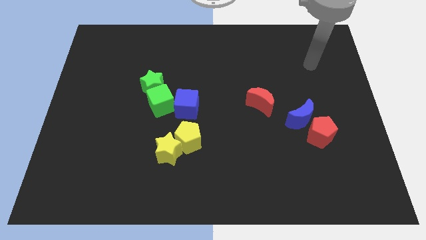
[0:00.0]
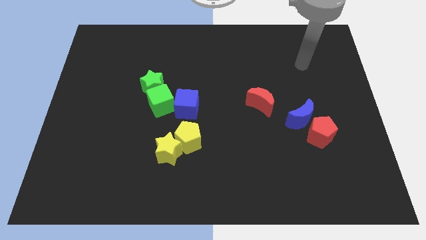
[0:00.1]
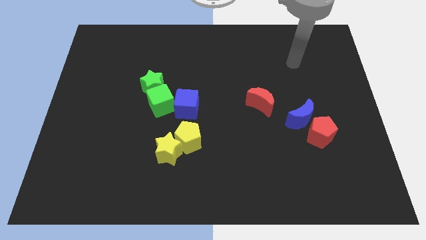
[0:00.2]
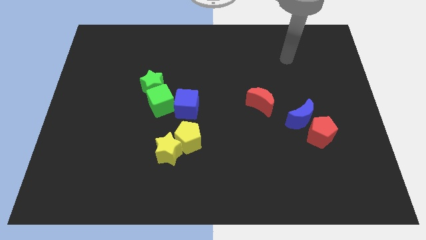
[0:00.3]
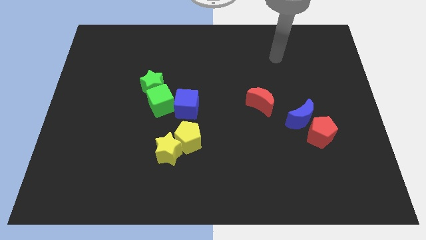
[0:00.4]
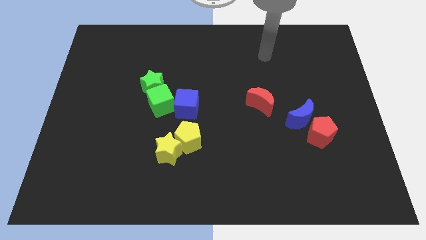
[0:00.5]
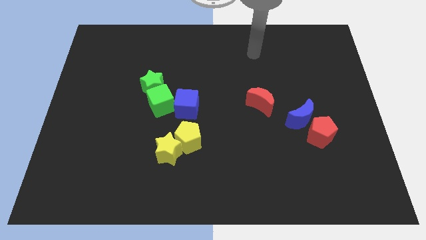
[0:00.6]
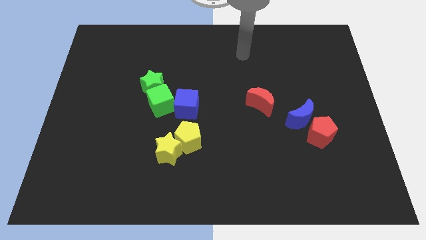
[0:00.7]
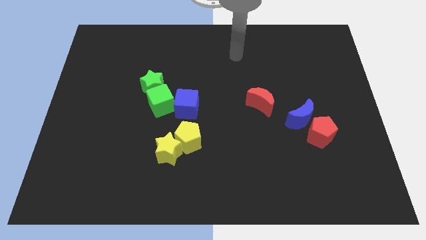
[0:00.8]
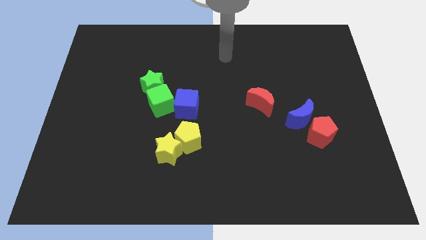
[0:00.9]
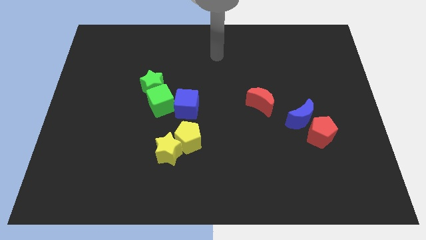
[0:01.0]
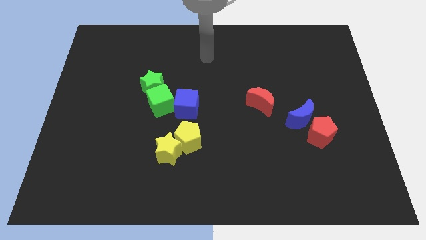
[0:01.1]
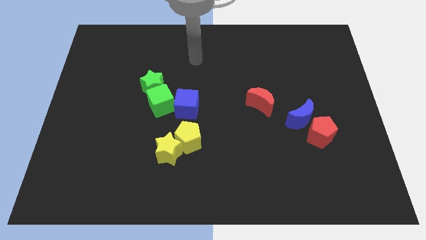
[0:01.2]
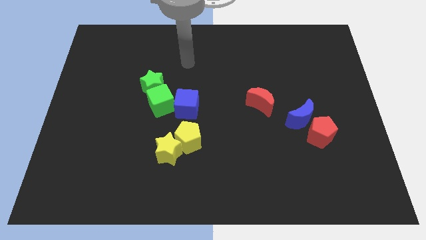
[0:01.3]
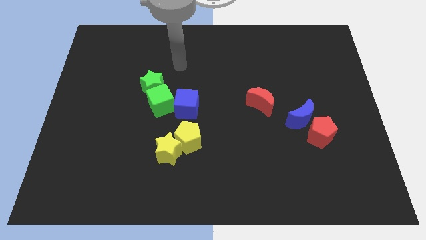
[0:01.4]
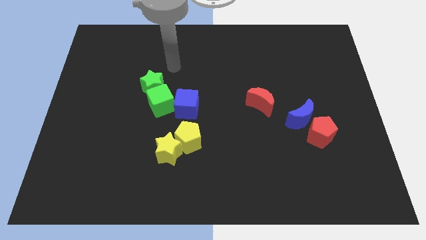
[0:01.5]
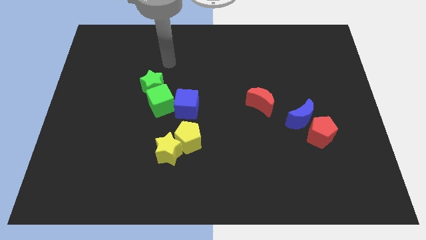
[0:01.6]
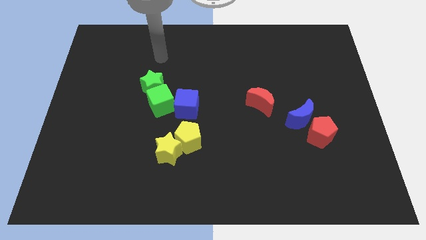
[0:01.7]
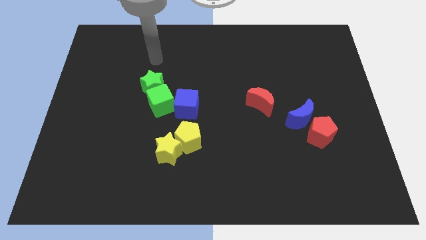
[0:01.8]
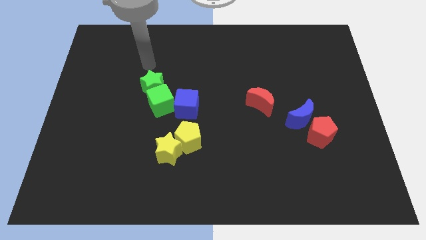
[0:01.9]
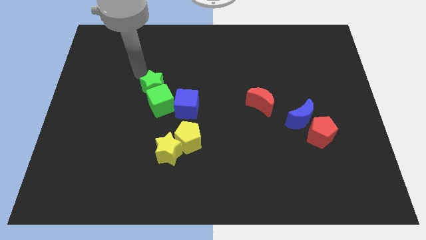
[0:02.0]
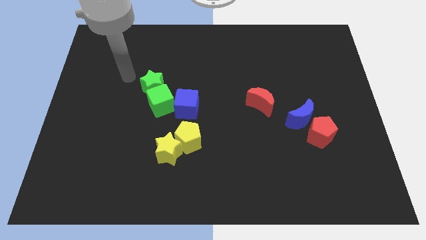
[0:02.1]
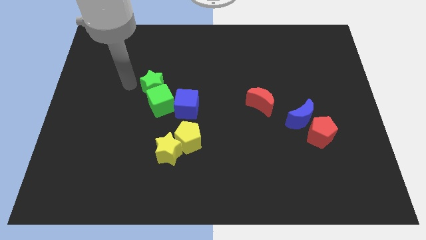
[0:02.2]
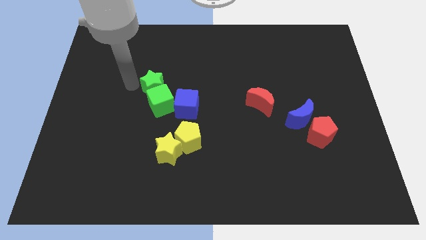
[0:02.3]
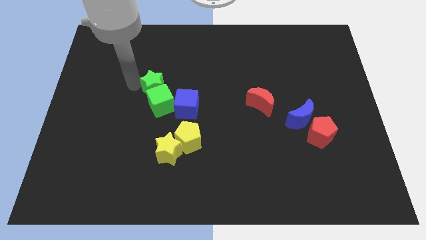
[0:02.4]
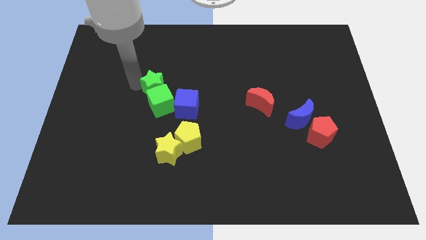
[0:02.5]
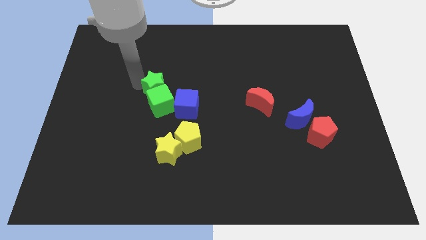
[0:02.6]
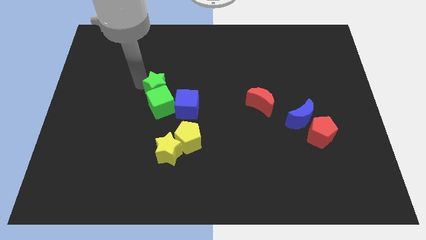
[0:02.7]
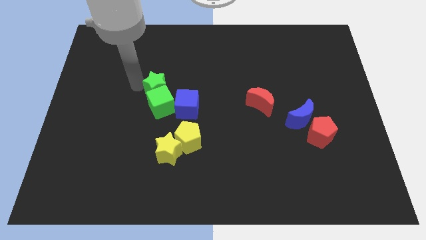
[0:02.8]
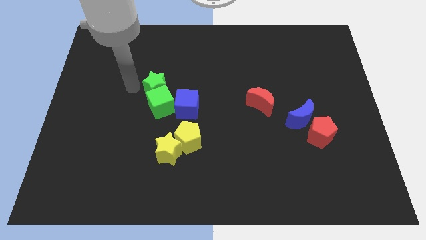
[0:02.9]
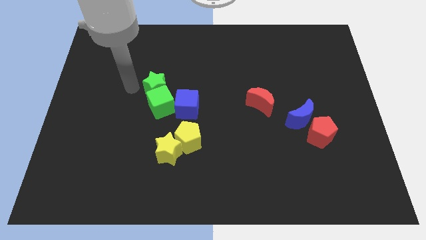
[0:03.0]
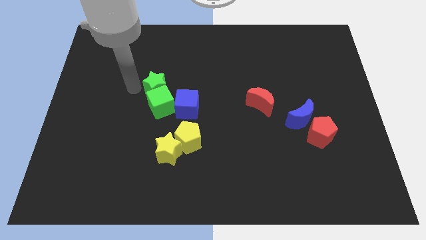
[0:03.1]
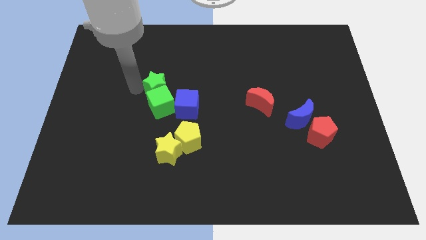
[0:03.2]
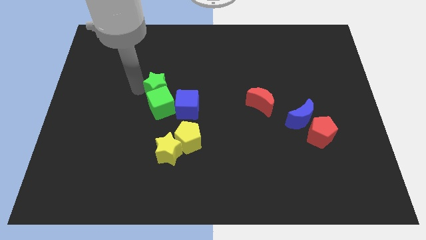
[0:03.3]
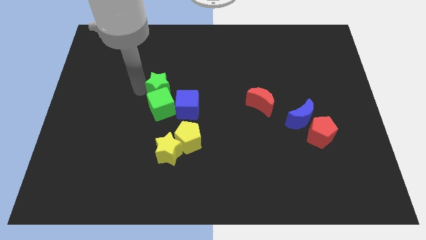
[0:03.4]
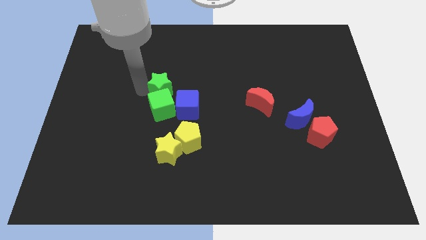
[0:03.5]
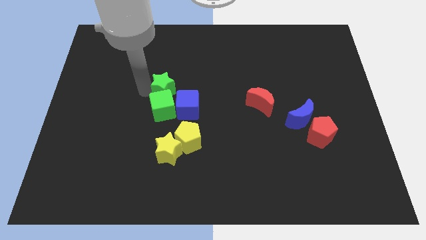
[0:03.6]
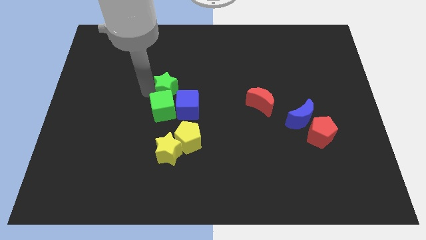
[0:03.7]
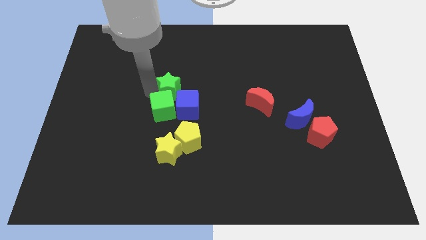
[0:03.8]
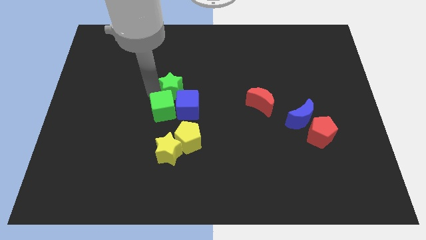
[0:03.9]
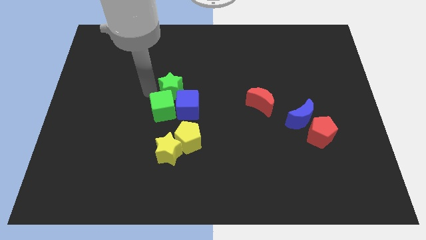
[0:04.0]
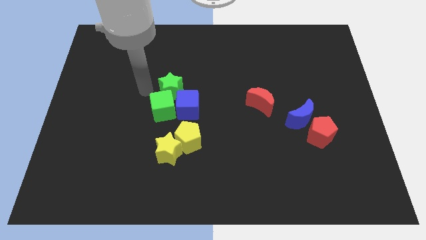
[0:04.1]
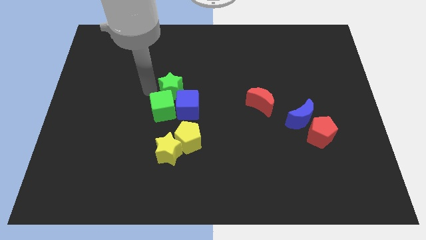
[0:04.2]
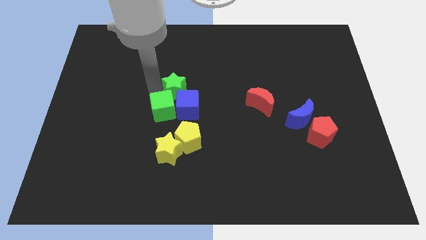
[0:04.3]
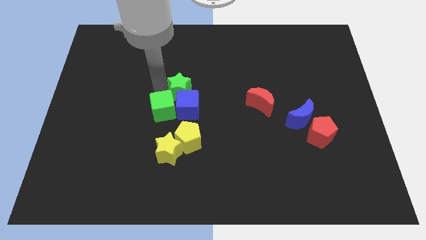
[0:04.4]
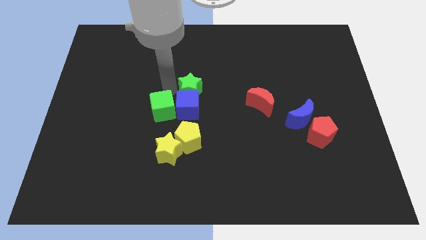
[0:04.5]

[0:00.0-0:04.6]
push the green star to the right slightly

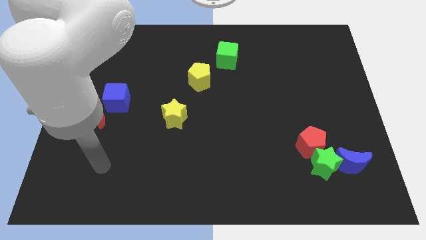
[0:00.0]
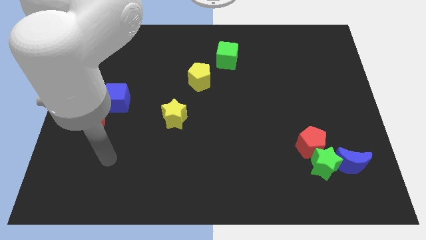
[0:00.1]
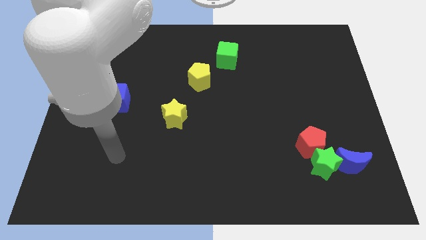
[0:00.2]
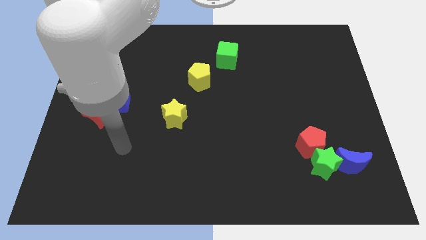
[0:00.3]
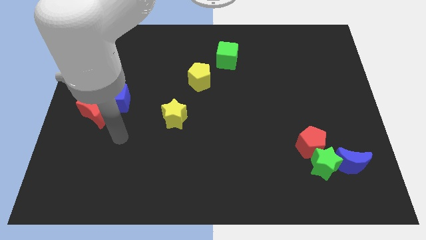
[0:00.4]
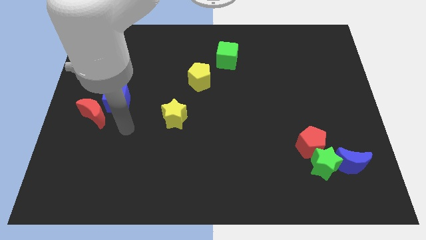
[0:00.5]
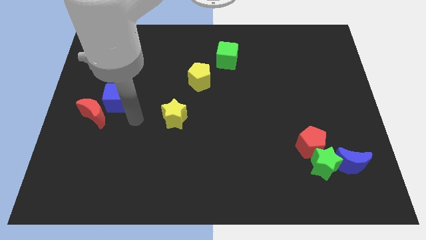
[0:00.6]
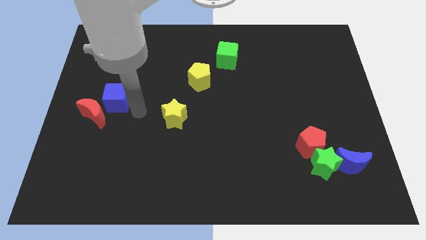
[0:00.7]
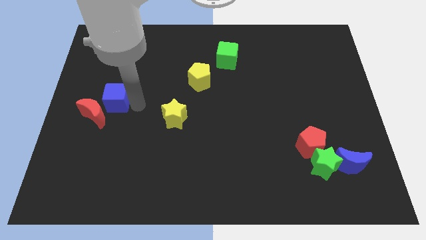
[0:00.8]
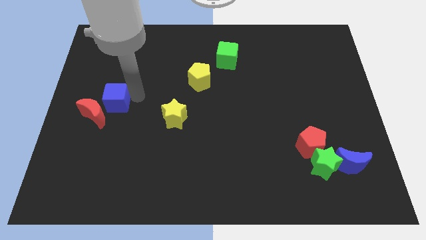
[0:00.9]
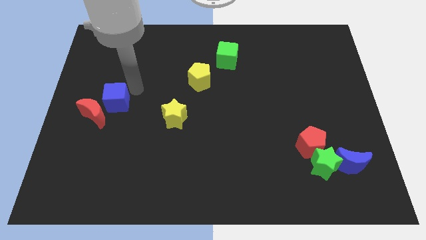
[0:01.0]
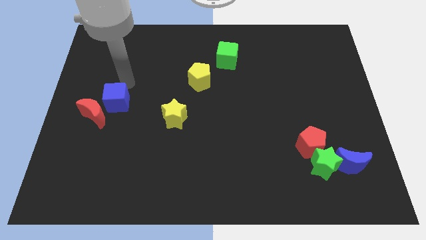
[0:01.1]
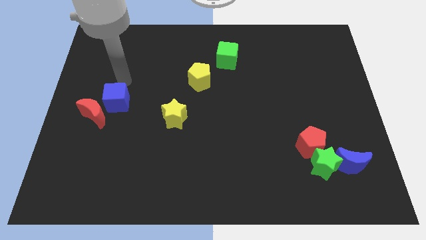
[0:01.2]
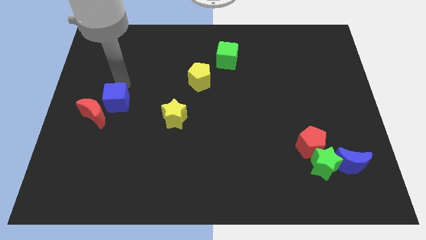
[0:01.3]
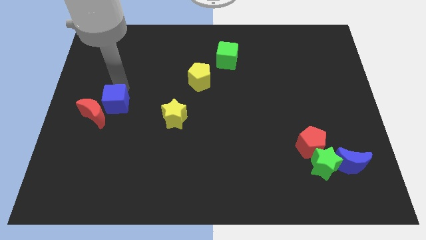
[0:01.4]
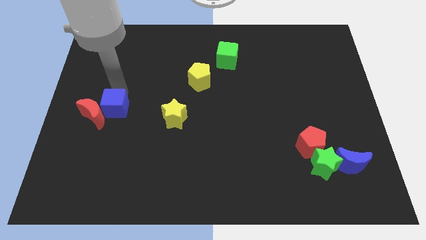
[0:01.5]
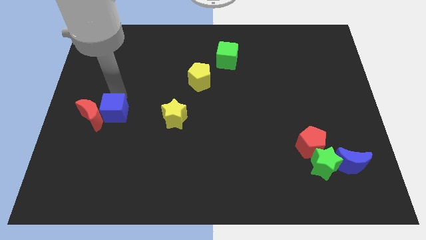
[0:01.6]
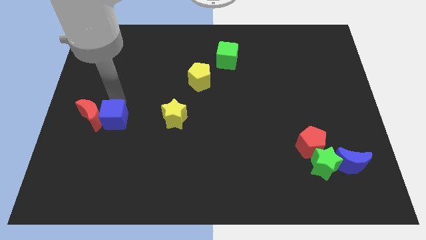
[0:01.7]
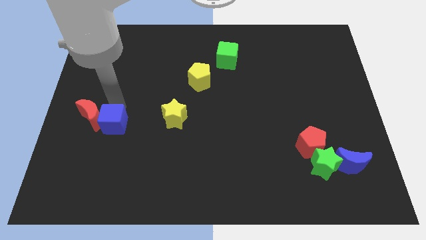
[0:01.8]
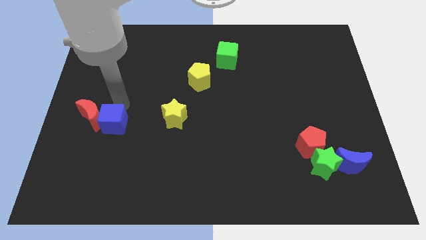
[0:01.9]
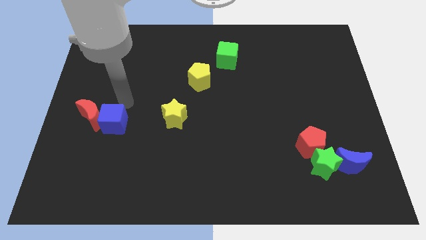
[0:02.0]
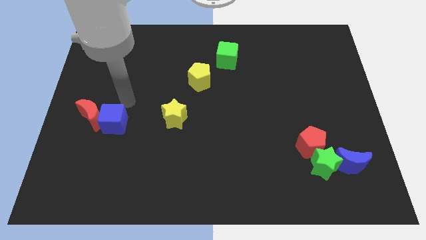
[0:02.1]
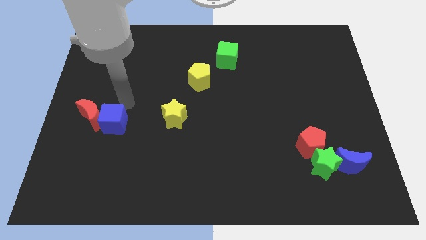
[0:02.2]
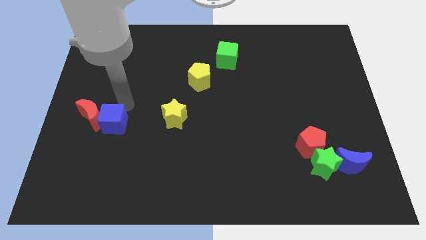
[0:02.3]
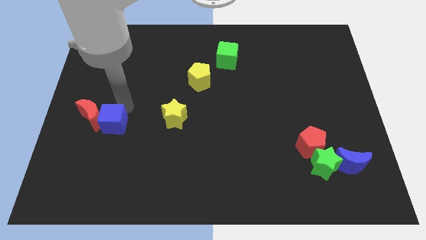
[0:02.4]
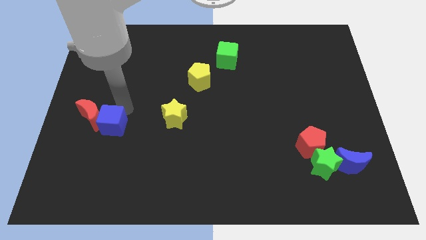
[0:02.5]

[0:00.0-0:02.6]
slightly slide the blue cube downwards

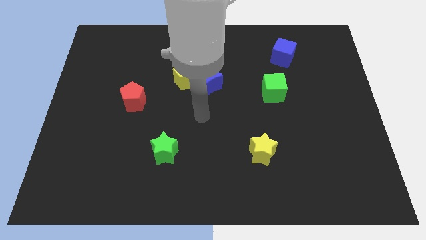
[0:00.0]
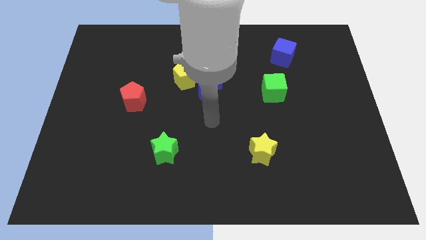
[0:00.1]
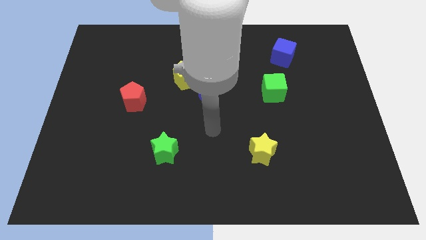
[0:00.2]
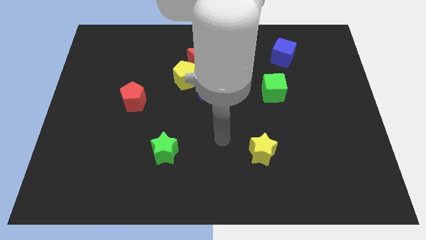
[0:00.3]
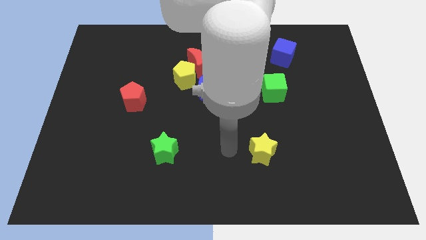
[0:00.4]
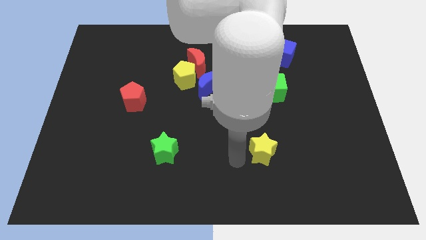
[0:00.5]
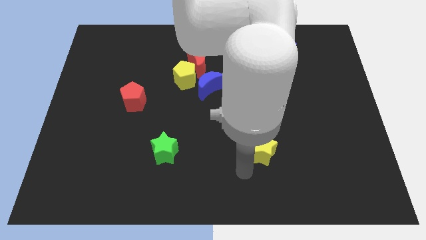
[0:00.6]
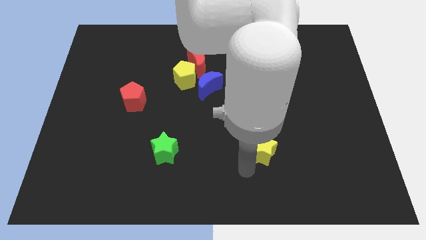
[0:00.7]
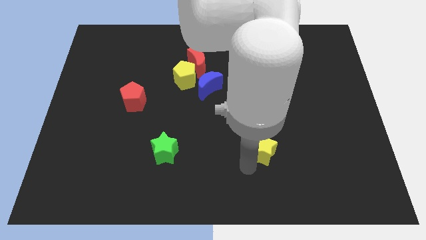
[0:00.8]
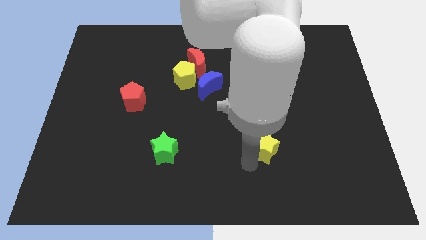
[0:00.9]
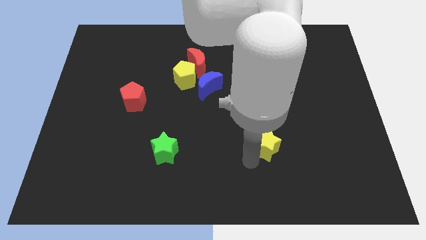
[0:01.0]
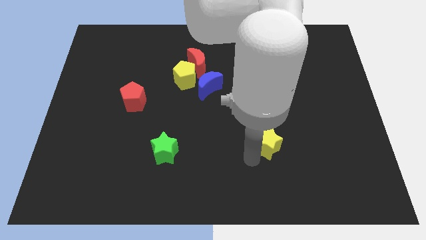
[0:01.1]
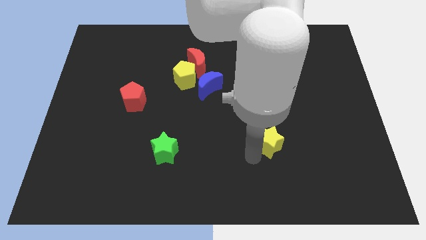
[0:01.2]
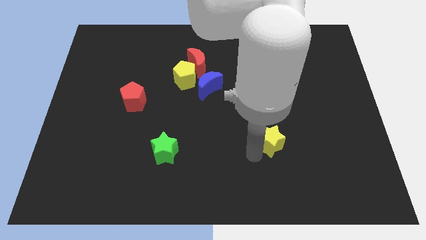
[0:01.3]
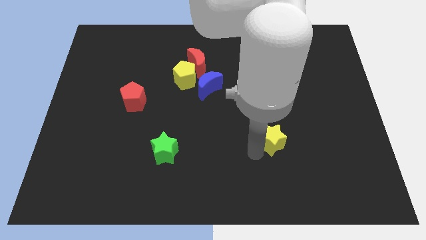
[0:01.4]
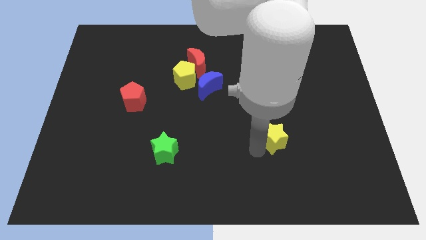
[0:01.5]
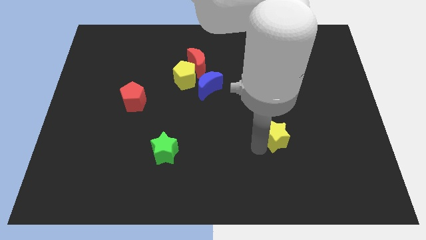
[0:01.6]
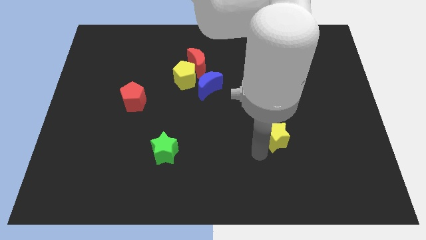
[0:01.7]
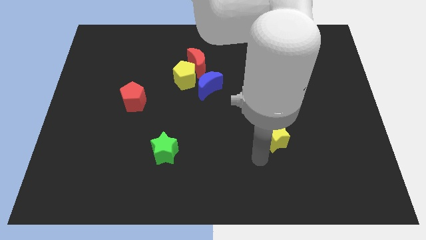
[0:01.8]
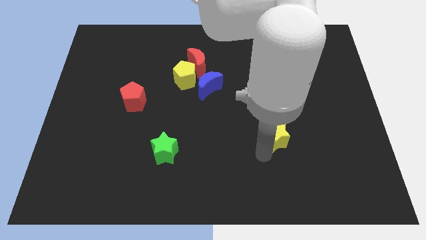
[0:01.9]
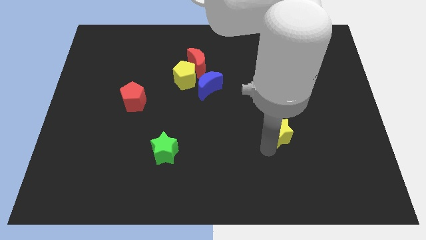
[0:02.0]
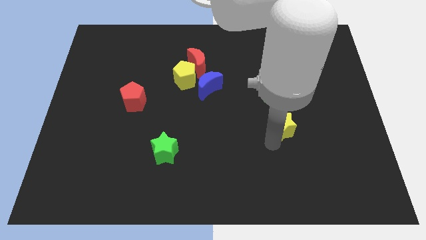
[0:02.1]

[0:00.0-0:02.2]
push the yellow star a little up and then to the right
